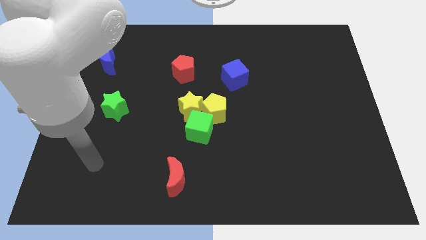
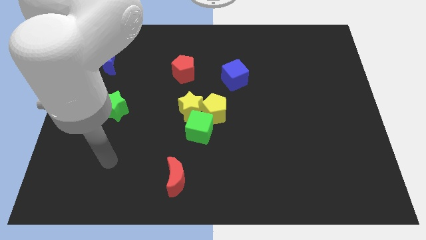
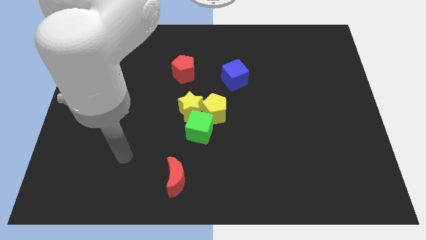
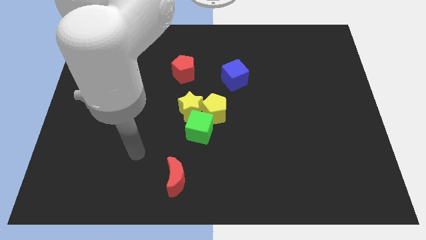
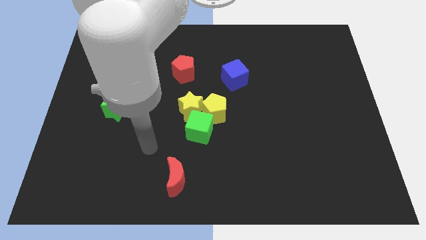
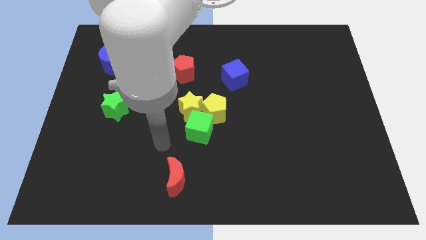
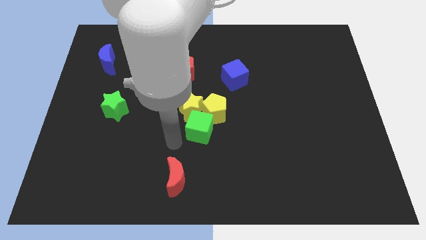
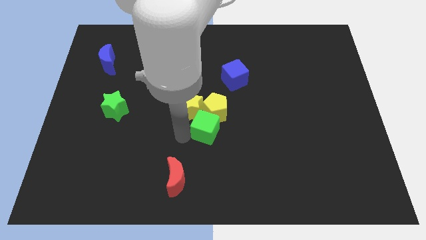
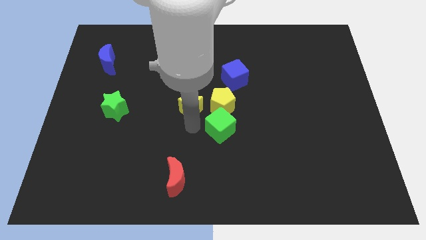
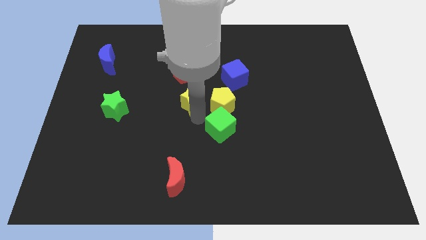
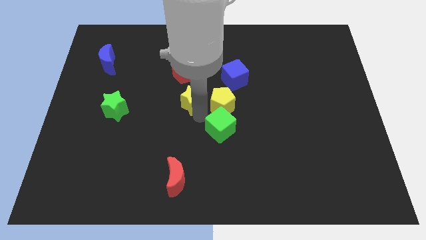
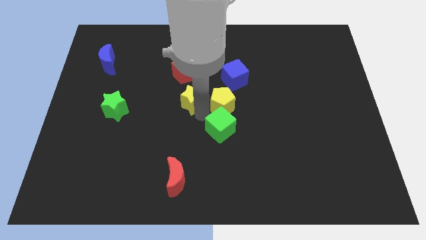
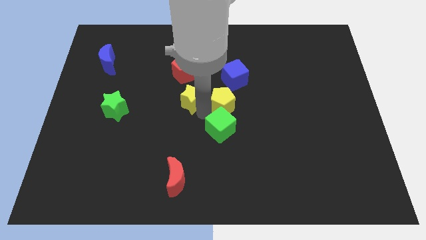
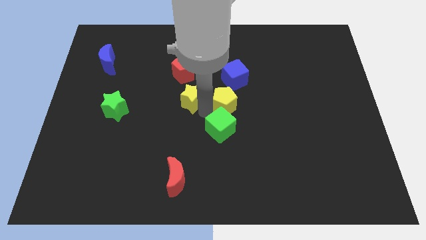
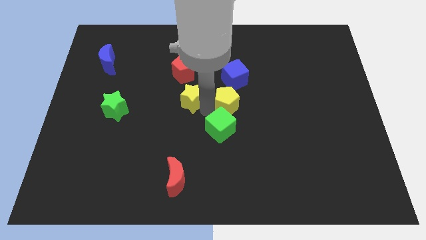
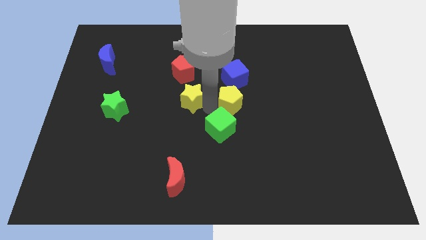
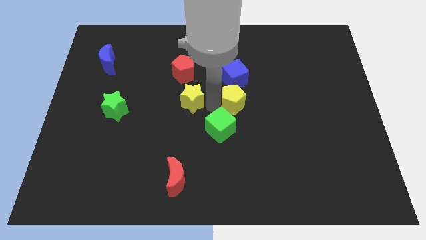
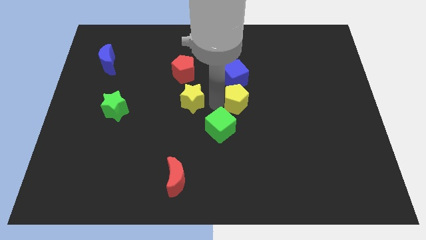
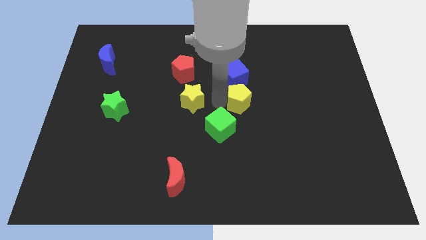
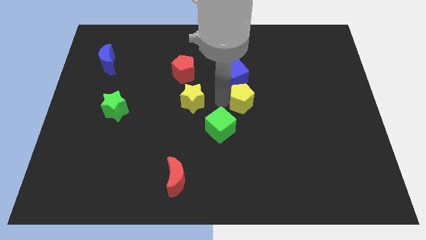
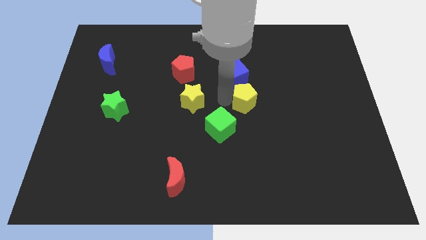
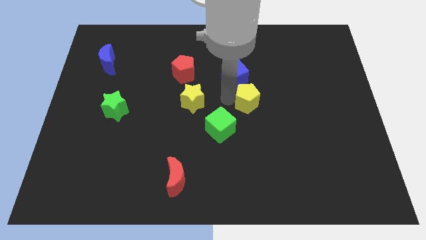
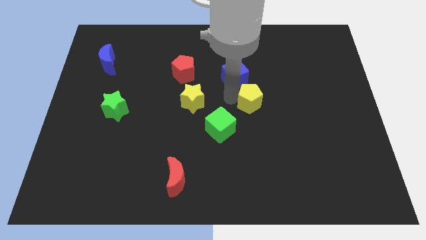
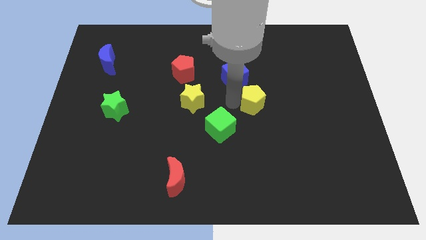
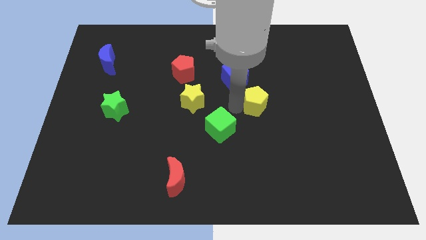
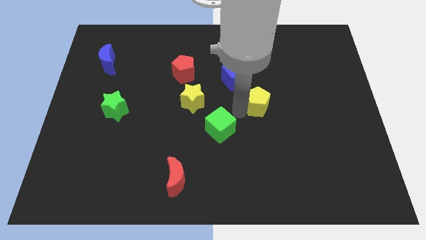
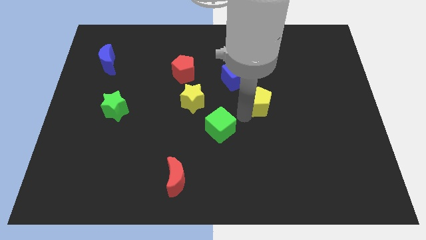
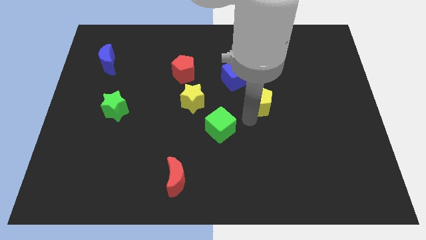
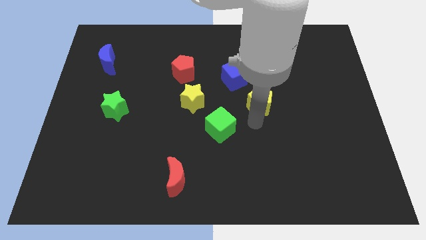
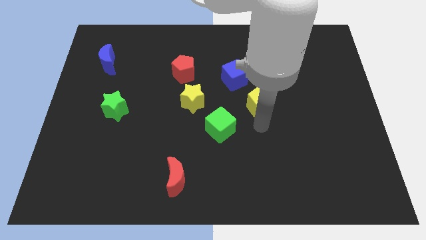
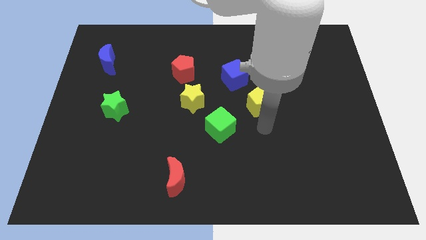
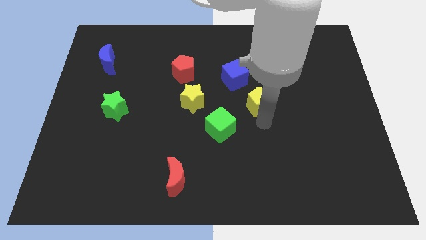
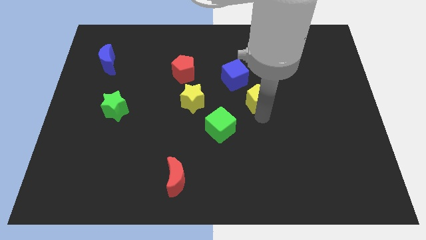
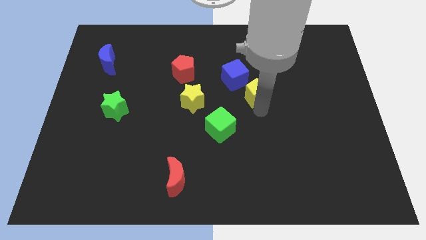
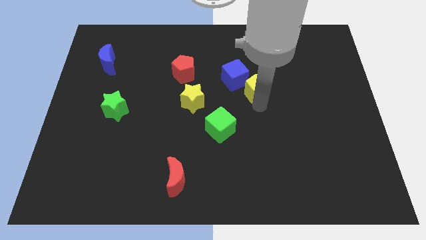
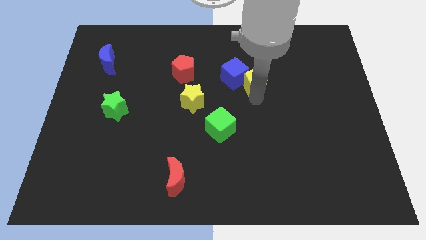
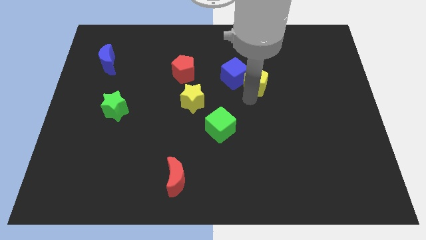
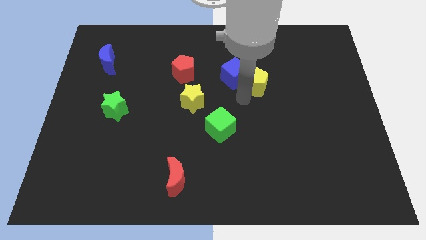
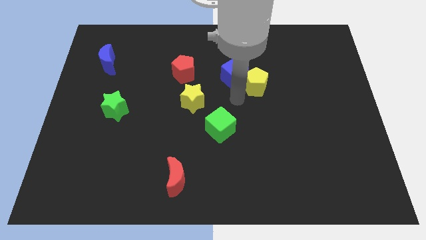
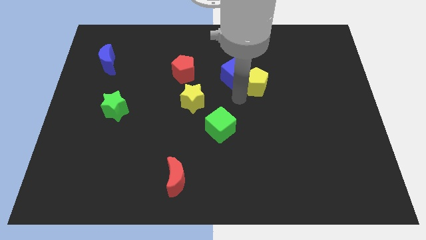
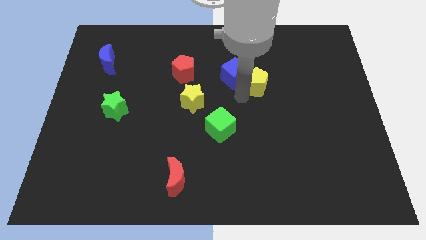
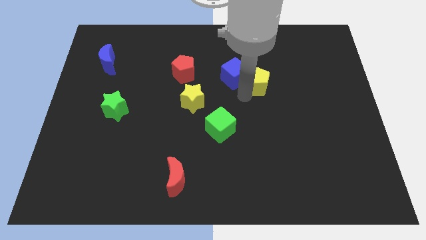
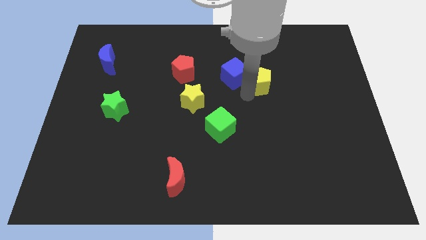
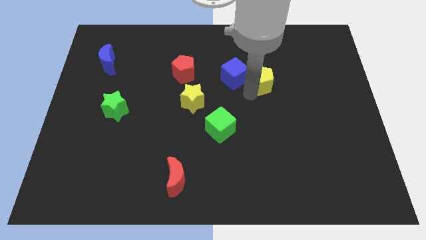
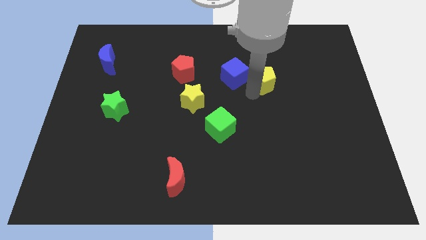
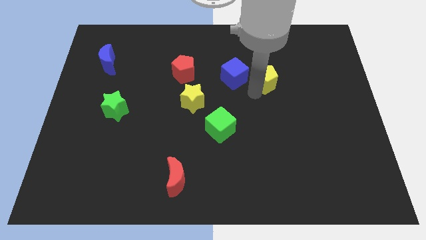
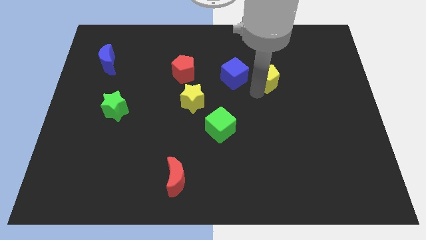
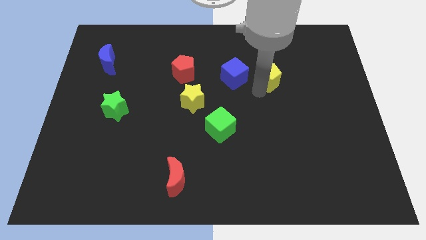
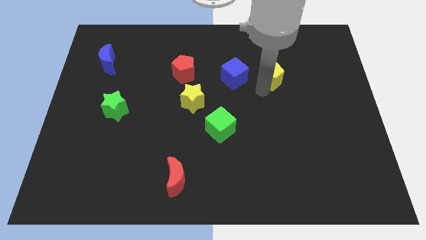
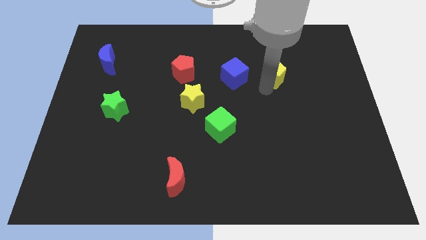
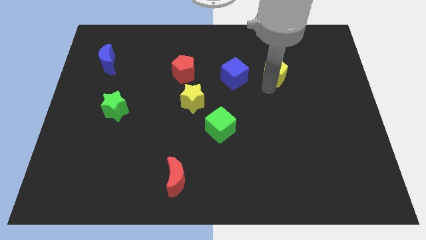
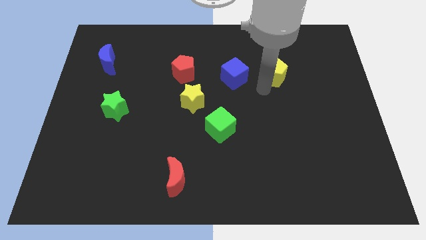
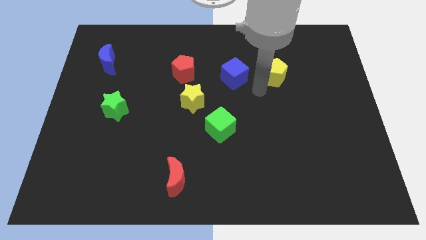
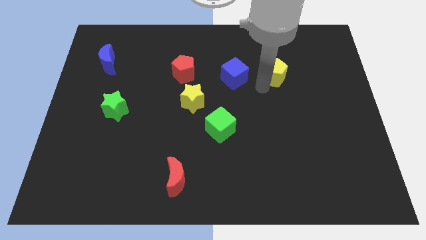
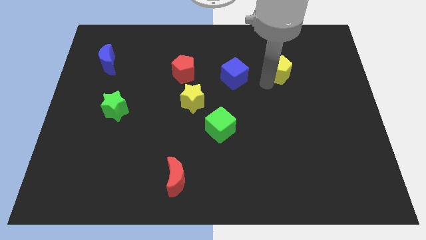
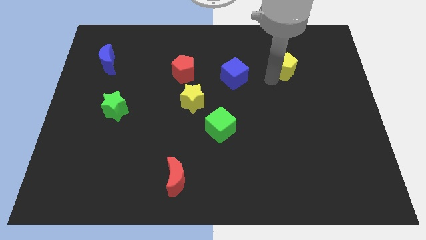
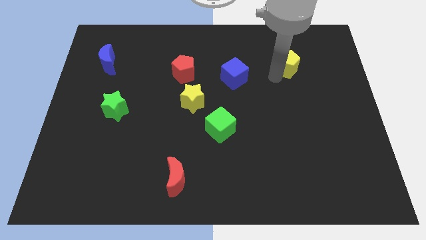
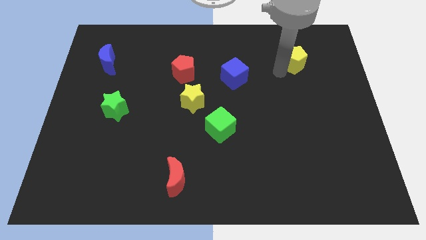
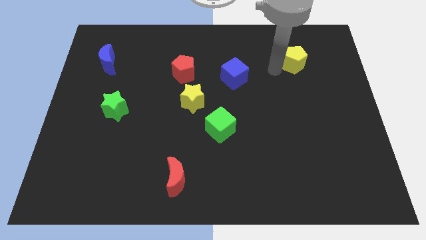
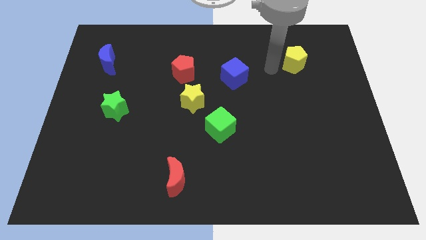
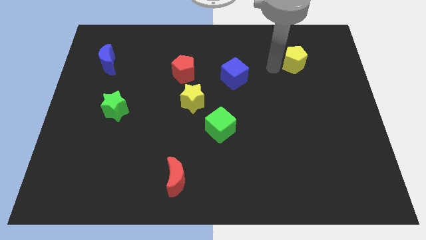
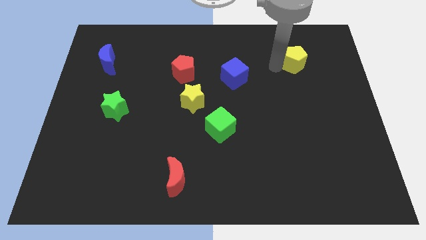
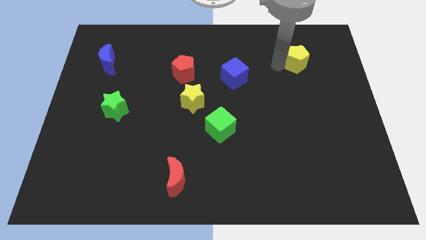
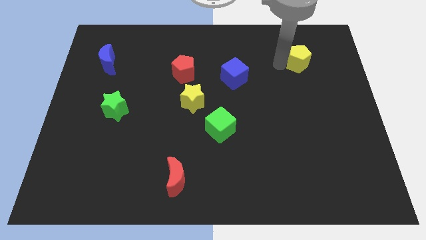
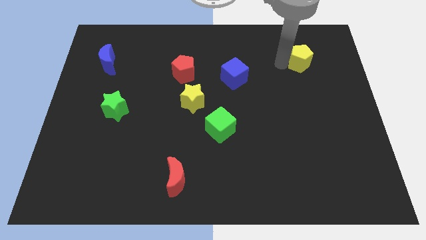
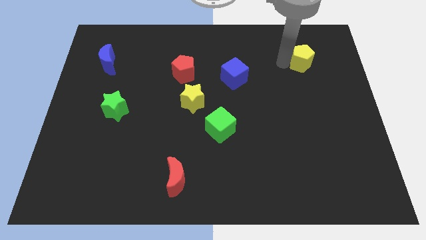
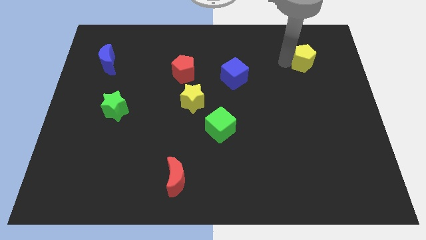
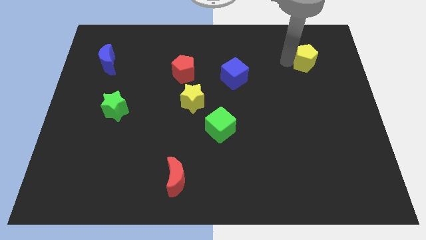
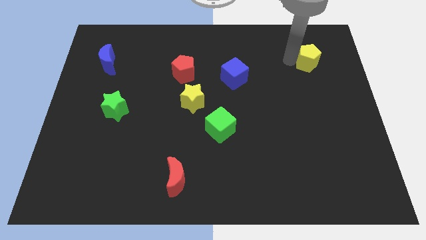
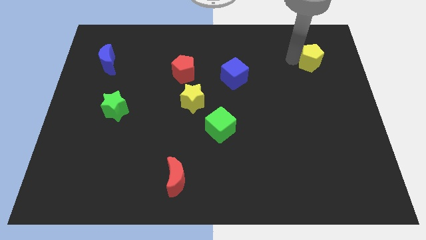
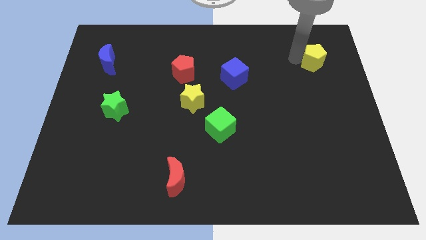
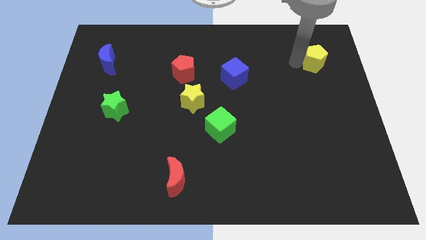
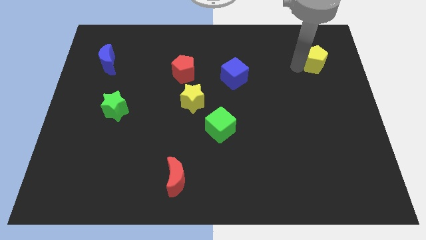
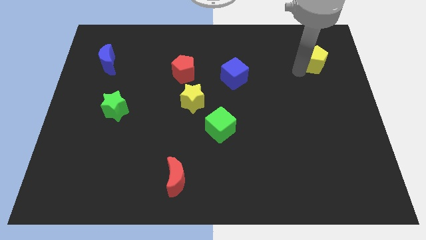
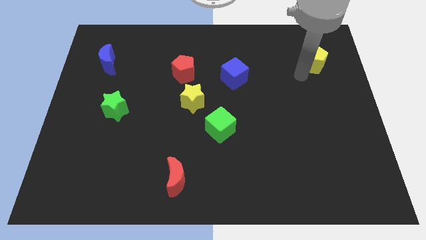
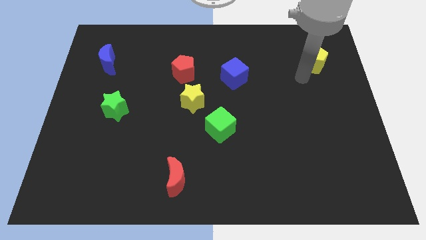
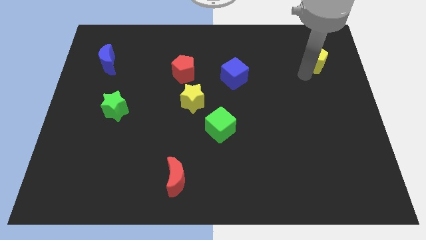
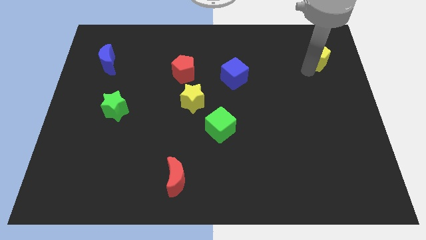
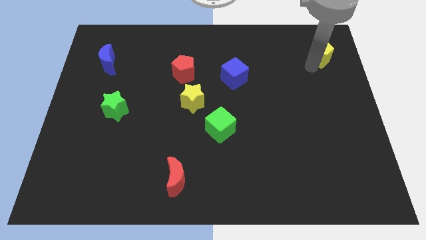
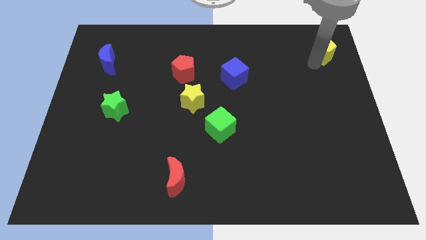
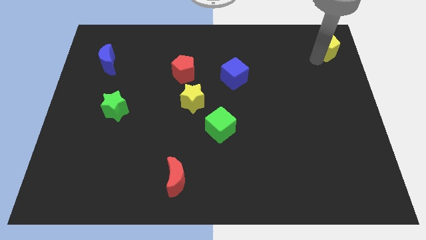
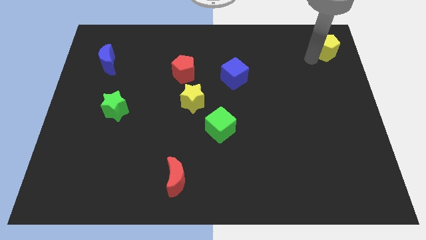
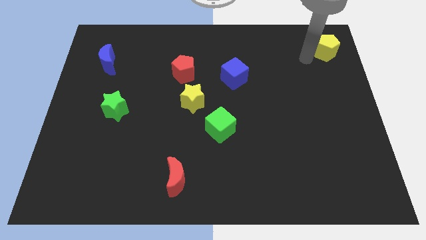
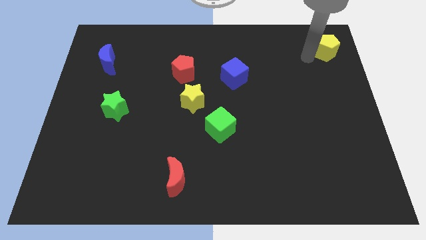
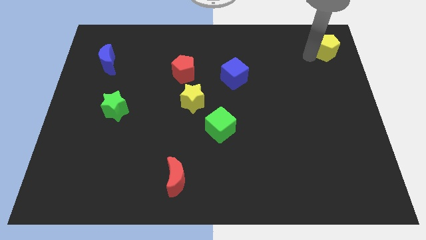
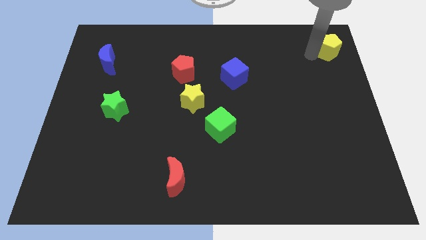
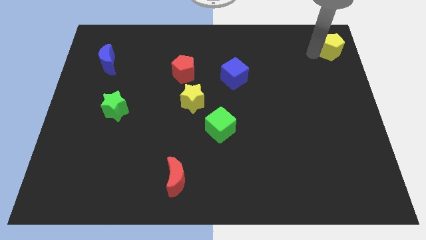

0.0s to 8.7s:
put the yellow pentagon to the top right corner
